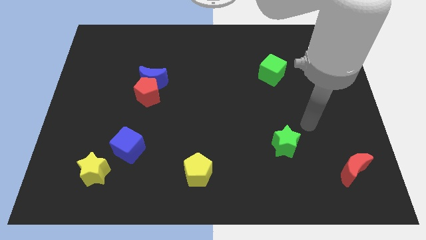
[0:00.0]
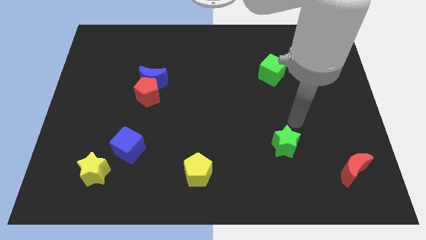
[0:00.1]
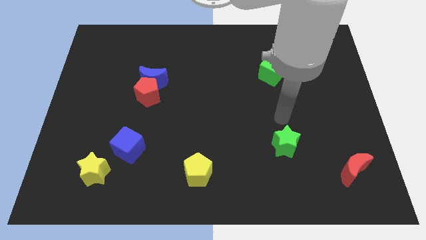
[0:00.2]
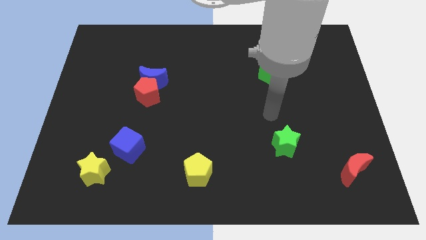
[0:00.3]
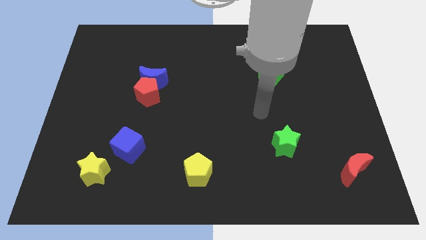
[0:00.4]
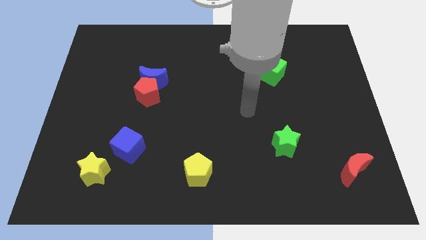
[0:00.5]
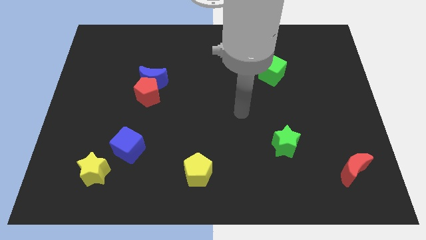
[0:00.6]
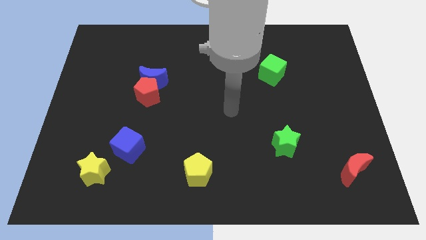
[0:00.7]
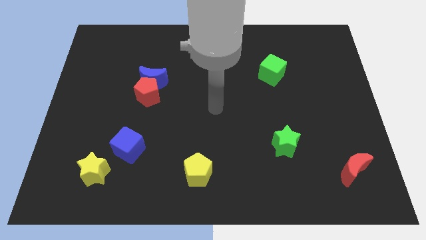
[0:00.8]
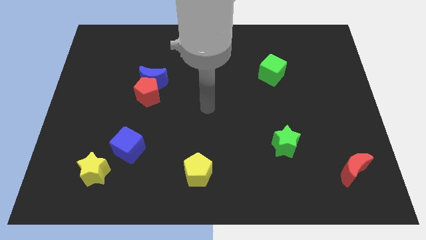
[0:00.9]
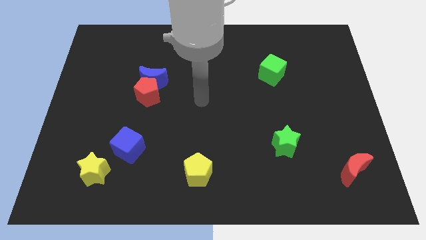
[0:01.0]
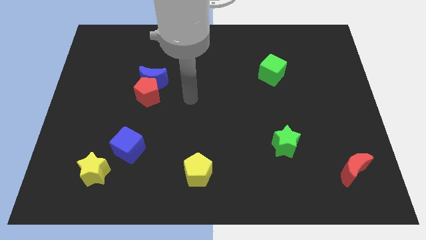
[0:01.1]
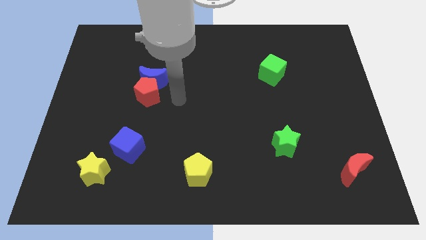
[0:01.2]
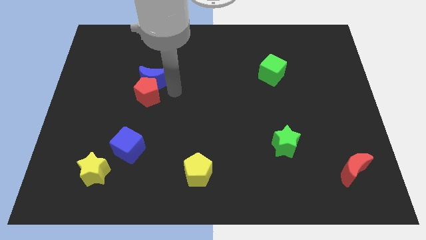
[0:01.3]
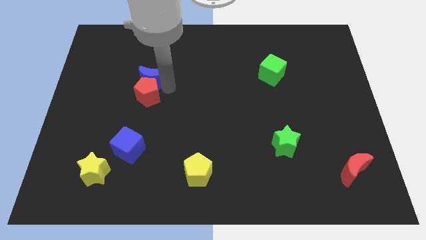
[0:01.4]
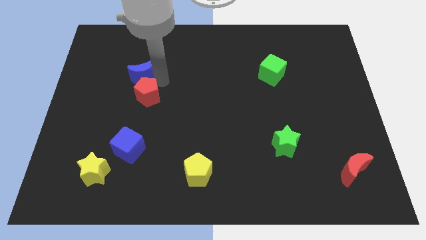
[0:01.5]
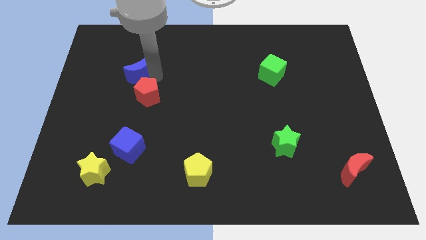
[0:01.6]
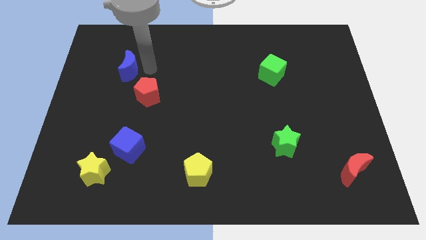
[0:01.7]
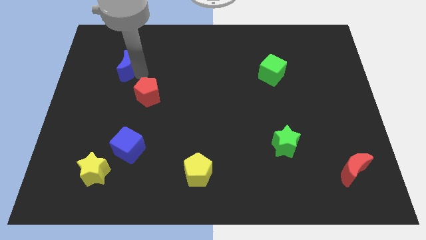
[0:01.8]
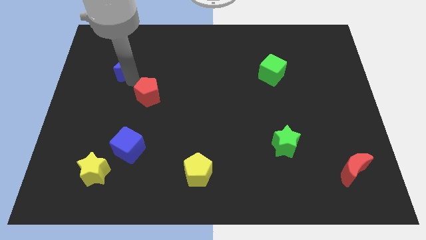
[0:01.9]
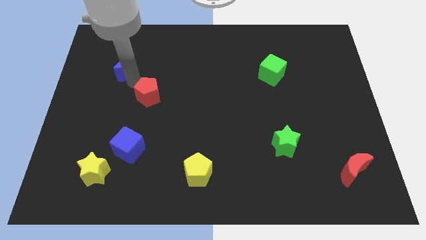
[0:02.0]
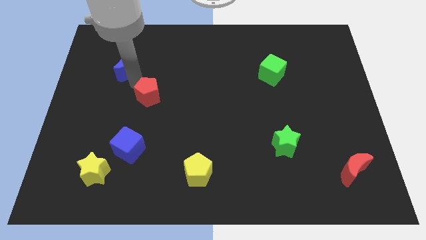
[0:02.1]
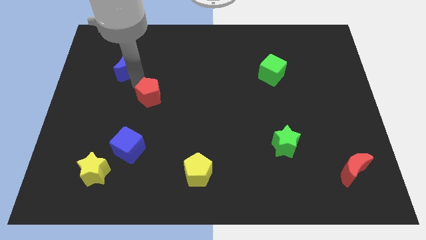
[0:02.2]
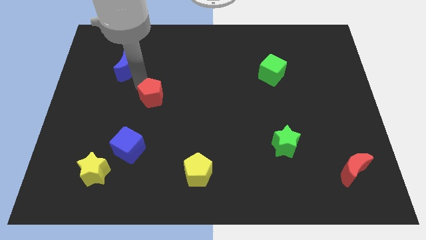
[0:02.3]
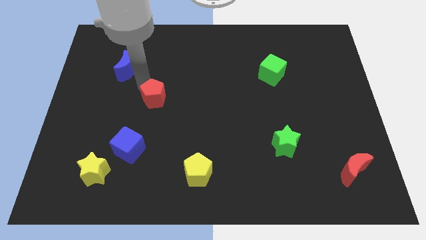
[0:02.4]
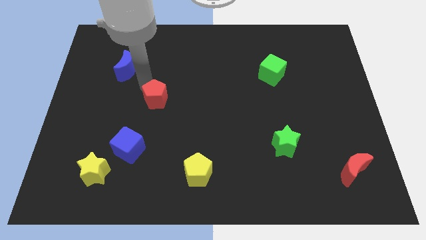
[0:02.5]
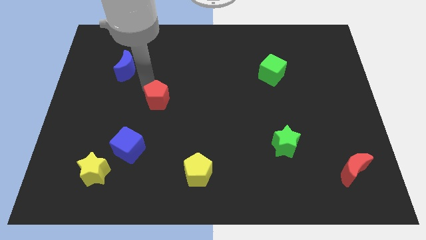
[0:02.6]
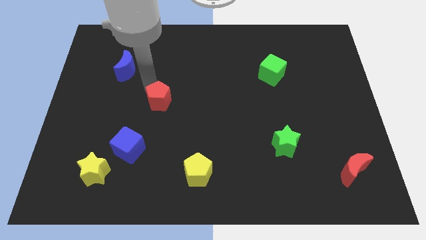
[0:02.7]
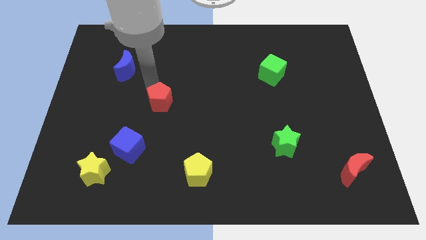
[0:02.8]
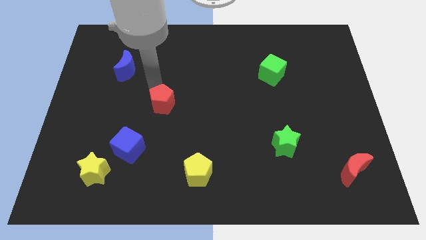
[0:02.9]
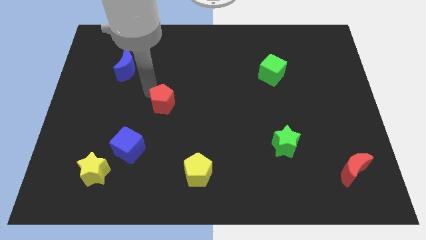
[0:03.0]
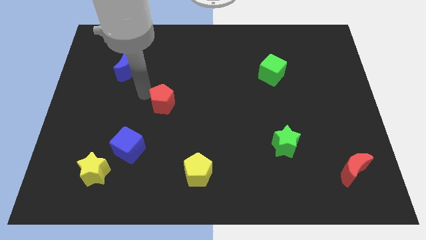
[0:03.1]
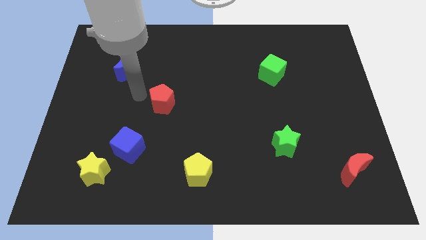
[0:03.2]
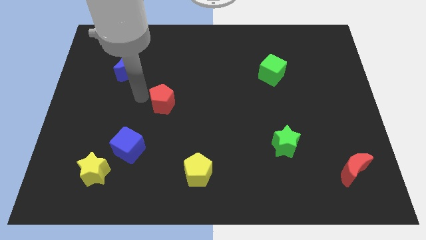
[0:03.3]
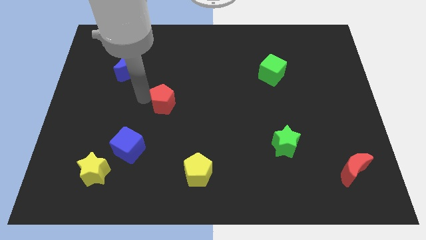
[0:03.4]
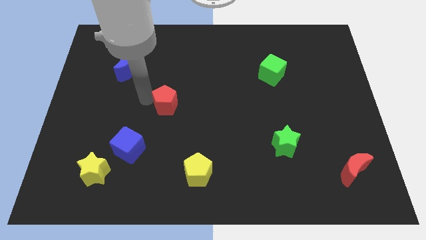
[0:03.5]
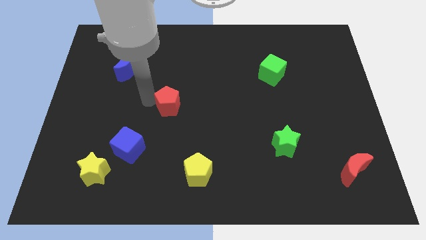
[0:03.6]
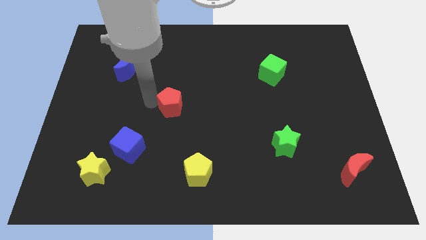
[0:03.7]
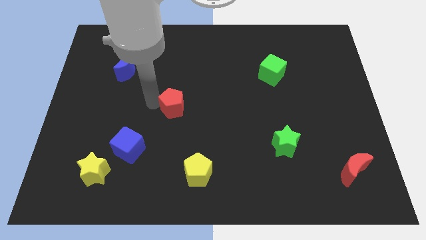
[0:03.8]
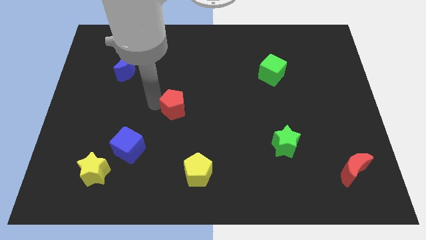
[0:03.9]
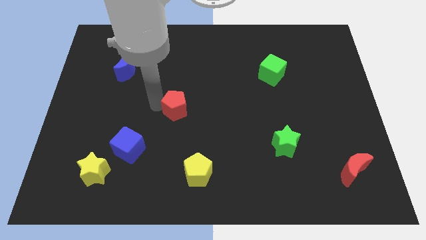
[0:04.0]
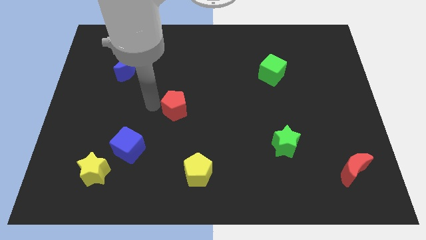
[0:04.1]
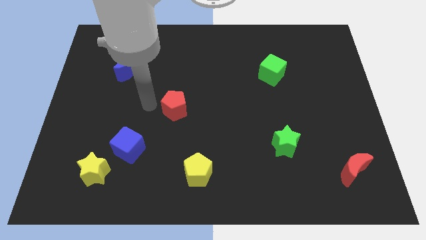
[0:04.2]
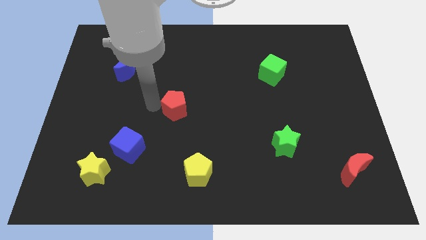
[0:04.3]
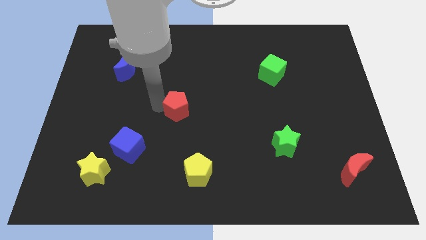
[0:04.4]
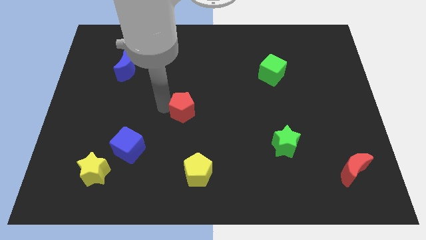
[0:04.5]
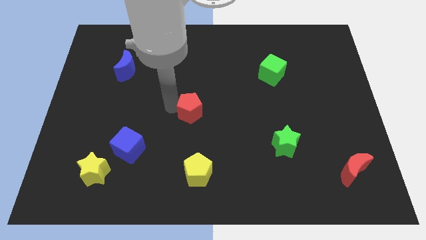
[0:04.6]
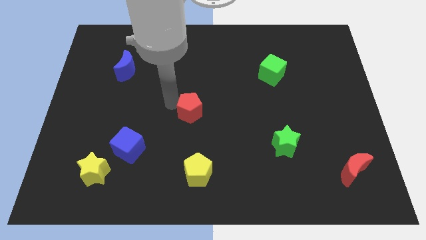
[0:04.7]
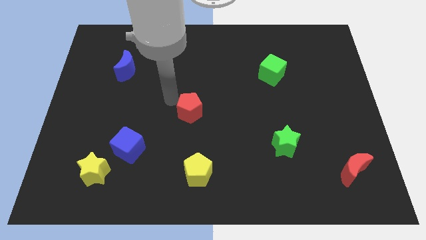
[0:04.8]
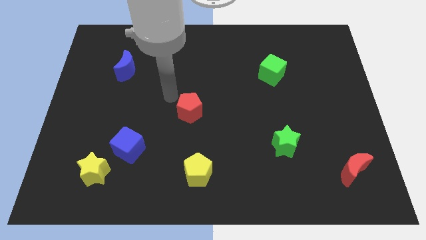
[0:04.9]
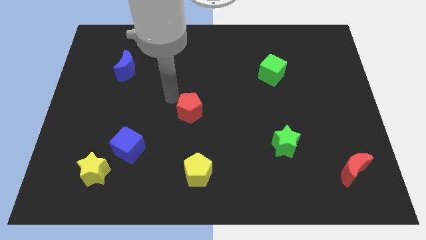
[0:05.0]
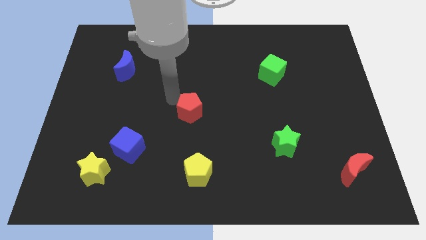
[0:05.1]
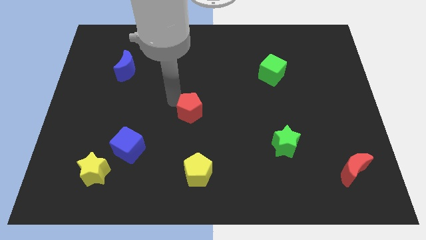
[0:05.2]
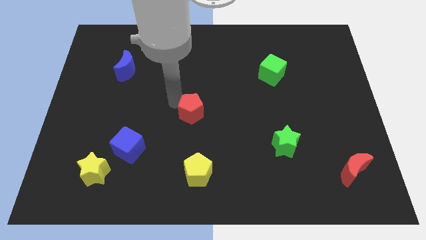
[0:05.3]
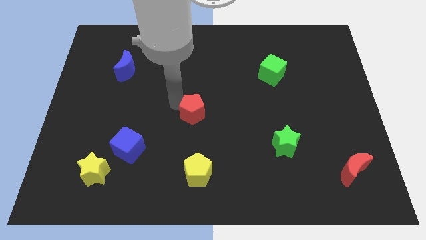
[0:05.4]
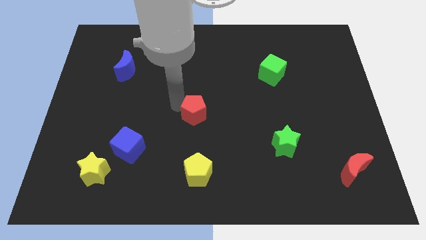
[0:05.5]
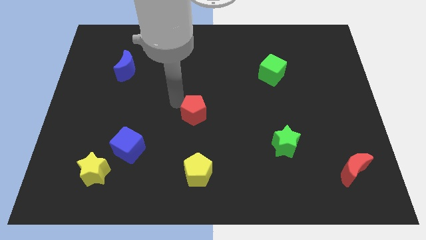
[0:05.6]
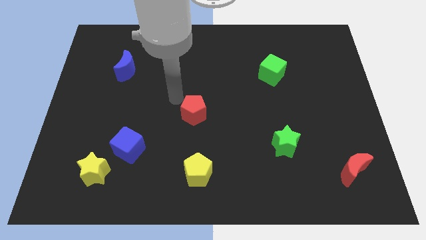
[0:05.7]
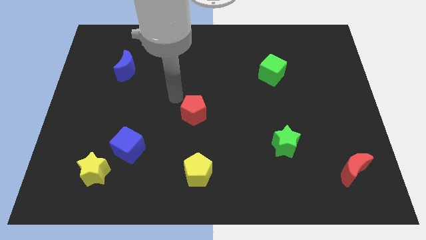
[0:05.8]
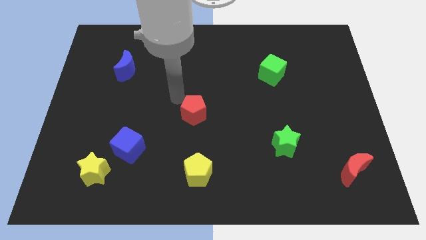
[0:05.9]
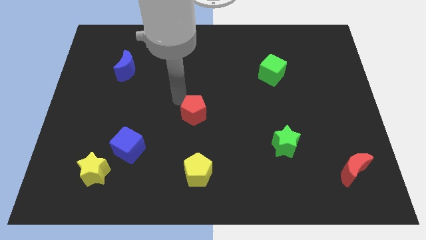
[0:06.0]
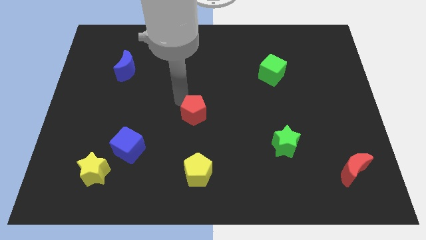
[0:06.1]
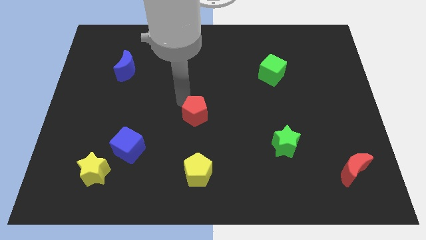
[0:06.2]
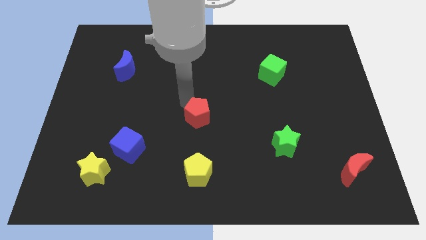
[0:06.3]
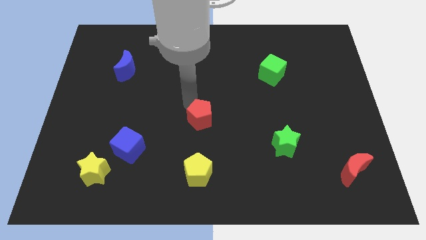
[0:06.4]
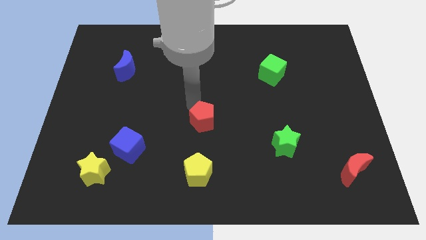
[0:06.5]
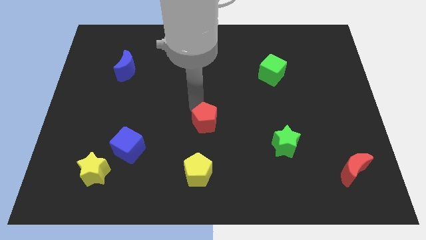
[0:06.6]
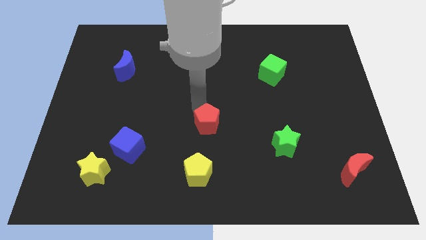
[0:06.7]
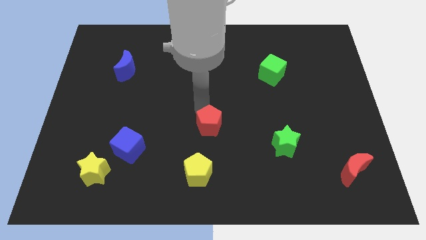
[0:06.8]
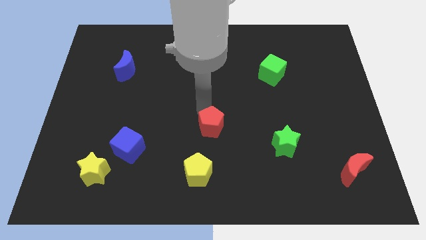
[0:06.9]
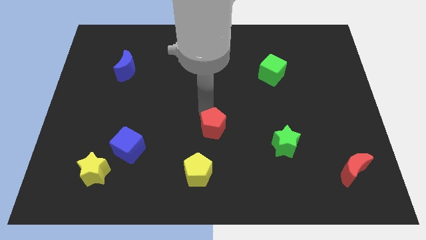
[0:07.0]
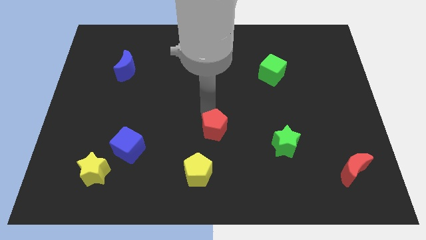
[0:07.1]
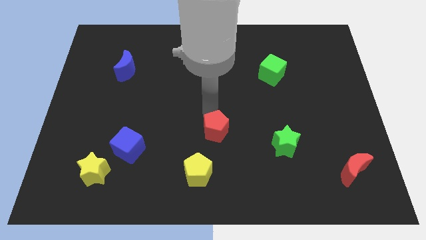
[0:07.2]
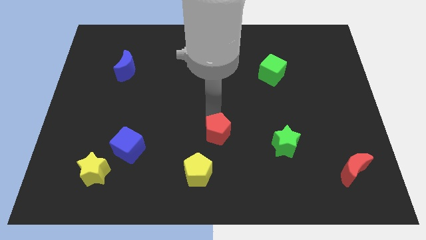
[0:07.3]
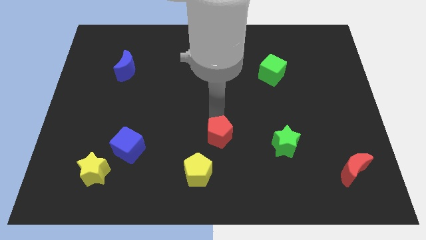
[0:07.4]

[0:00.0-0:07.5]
push the red pentagon down and to the right diagonally

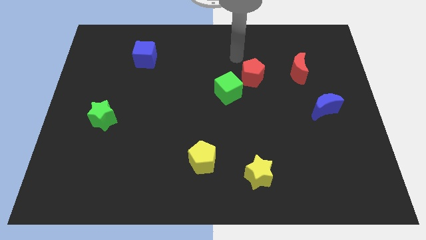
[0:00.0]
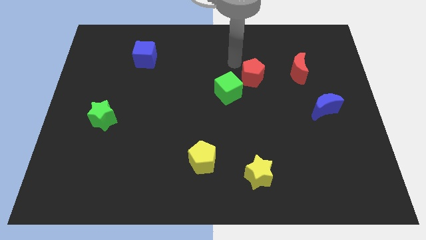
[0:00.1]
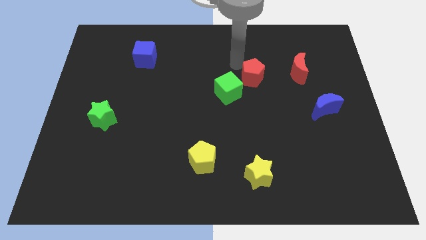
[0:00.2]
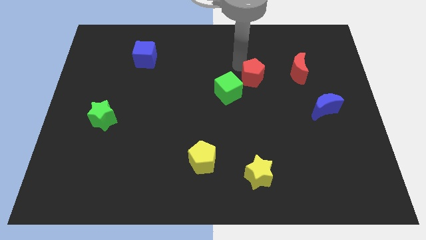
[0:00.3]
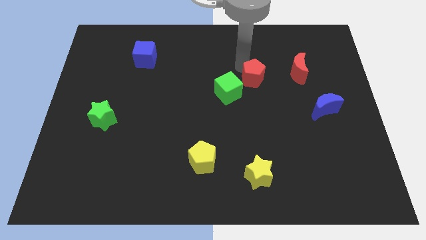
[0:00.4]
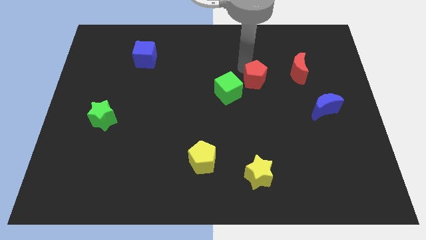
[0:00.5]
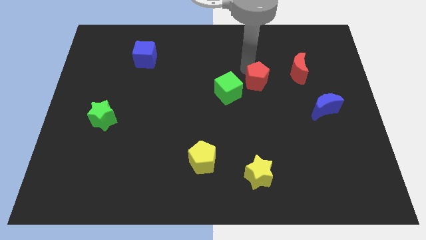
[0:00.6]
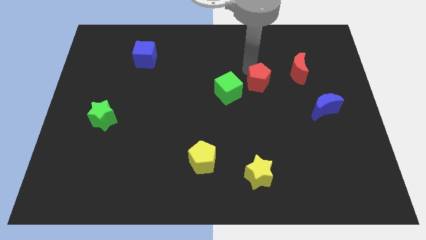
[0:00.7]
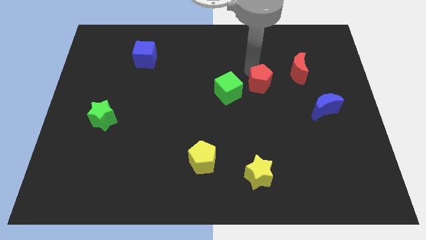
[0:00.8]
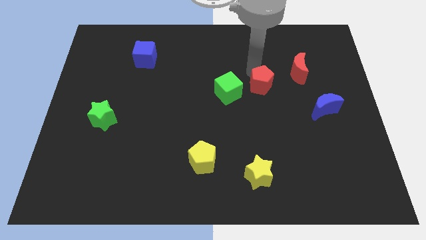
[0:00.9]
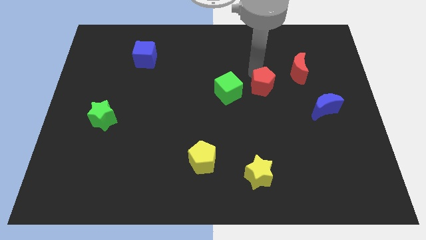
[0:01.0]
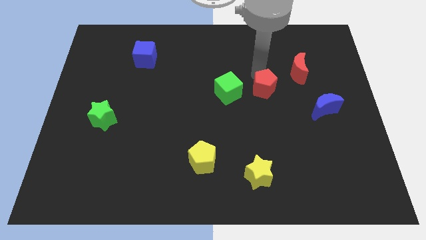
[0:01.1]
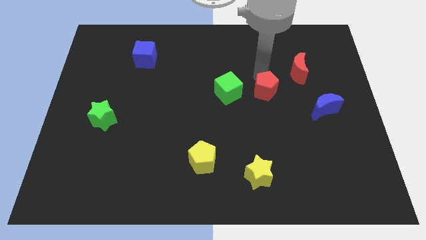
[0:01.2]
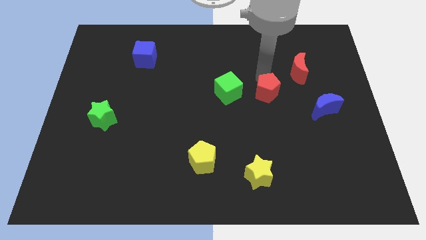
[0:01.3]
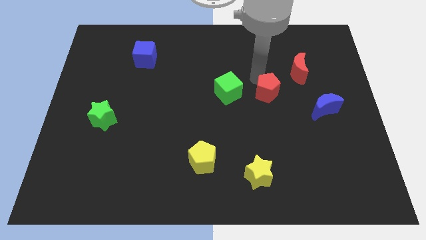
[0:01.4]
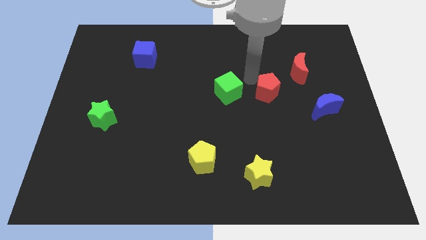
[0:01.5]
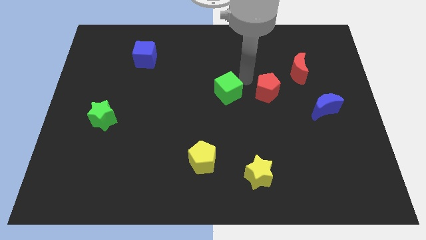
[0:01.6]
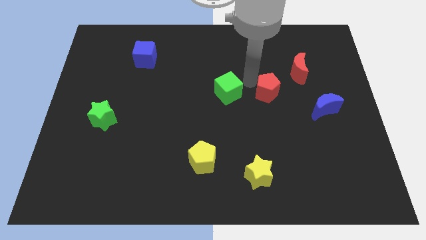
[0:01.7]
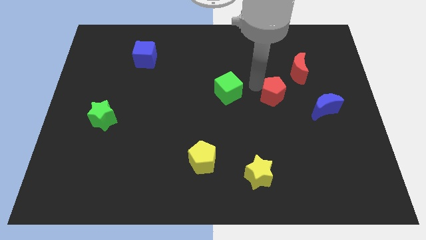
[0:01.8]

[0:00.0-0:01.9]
slightly slide the red pentagon downwards and to the right
